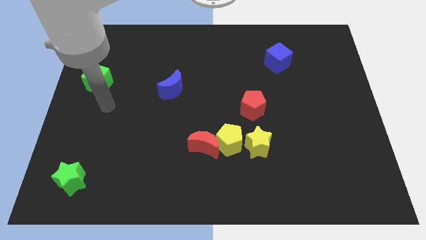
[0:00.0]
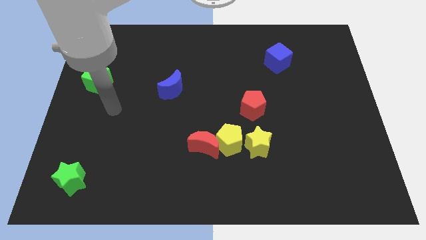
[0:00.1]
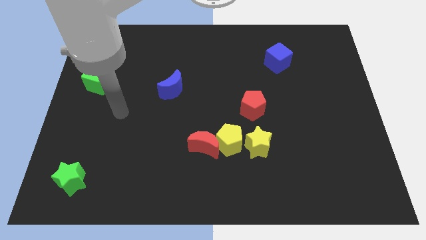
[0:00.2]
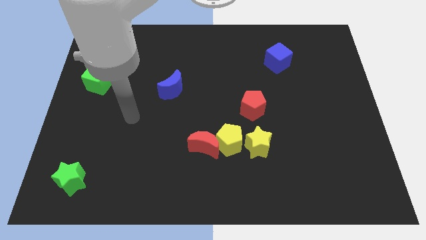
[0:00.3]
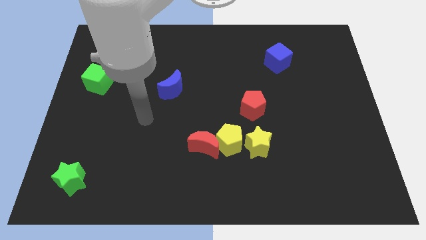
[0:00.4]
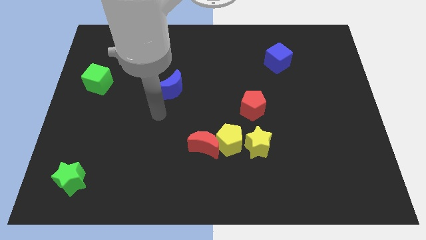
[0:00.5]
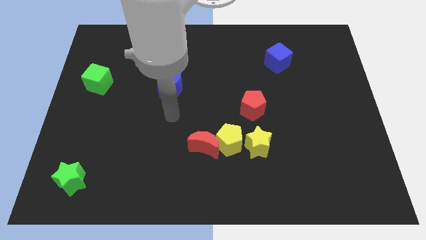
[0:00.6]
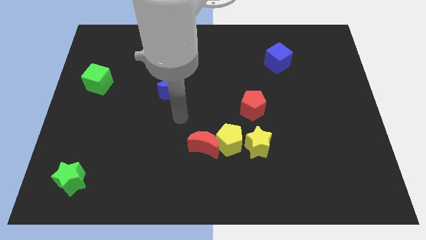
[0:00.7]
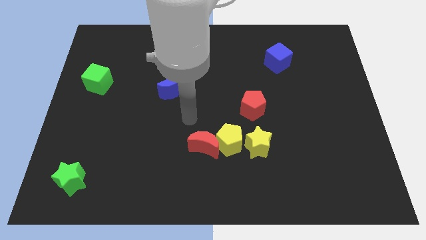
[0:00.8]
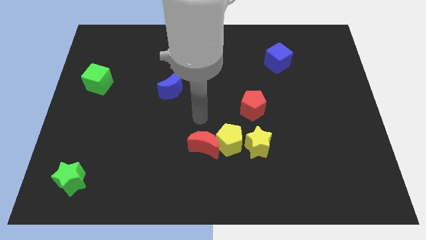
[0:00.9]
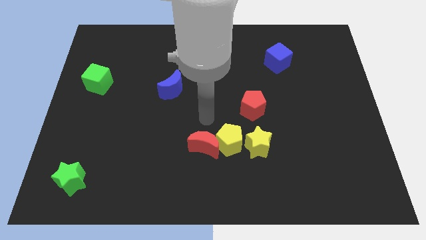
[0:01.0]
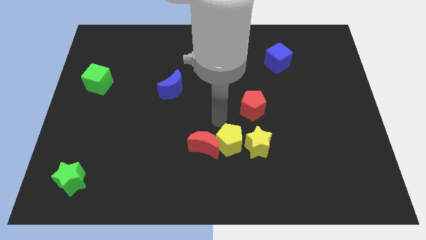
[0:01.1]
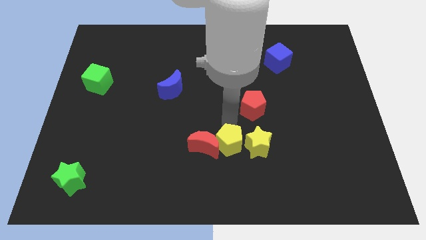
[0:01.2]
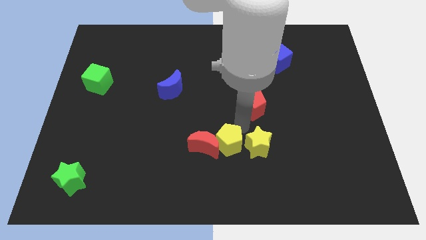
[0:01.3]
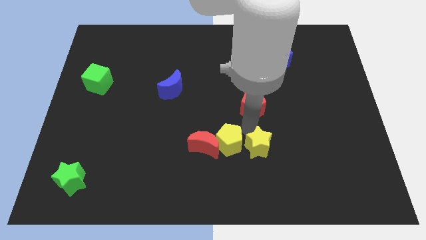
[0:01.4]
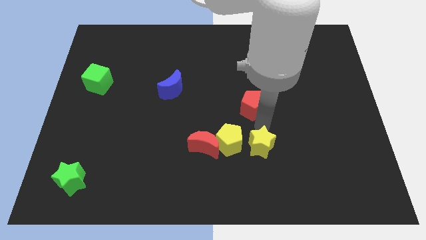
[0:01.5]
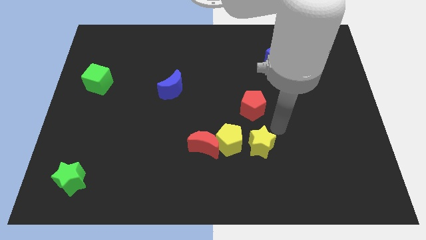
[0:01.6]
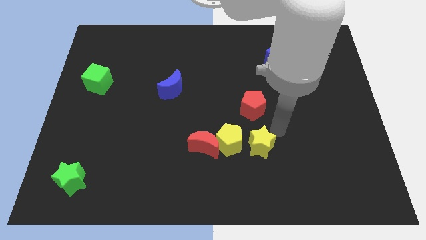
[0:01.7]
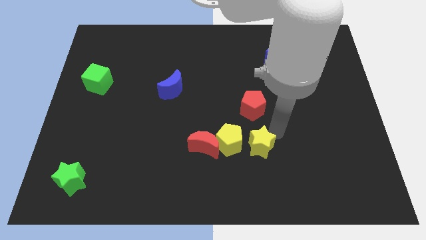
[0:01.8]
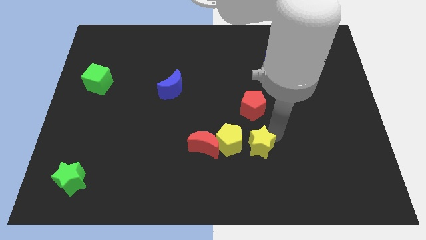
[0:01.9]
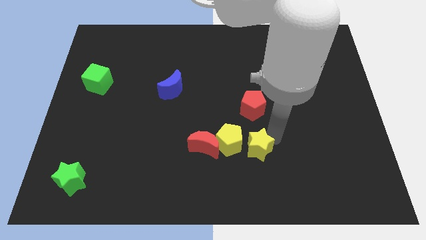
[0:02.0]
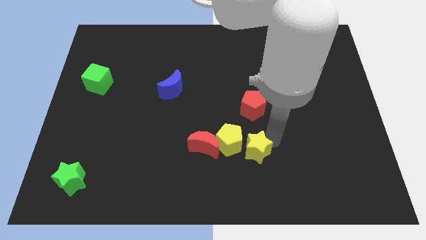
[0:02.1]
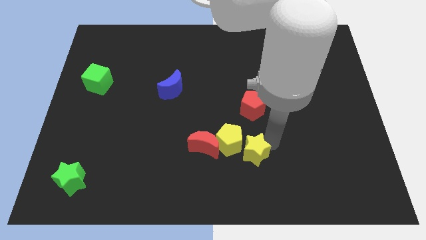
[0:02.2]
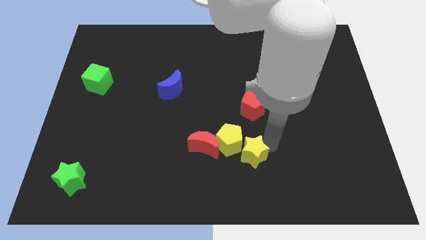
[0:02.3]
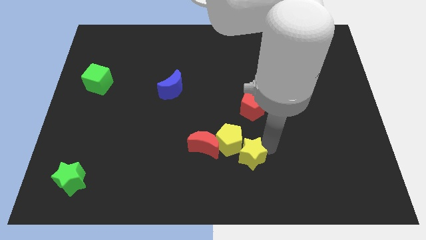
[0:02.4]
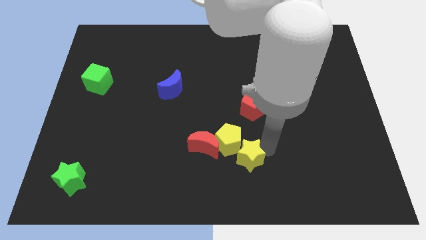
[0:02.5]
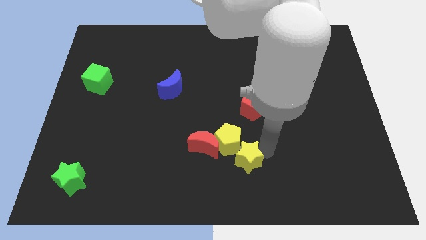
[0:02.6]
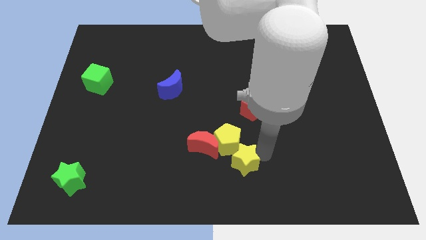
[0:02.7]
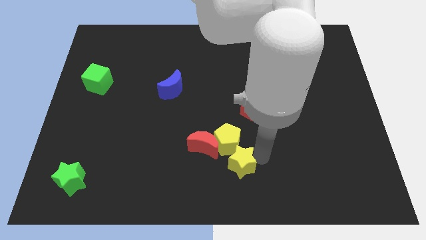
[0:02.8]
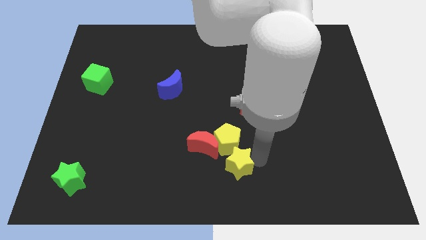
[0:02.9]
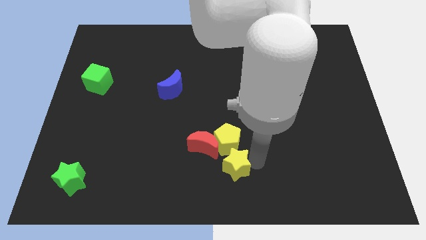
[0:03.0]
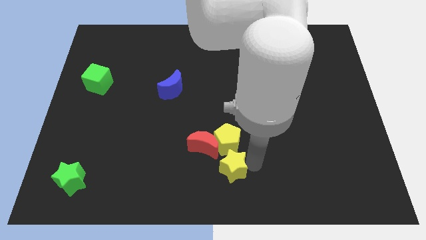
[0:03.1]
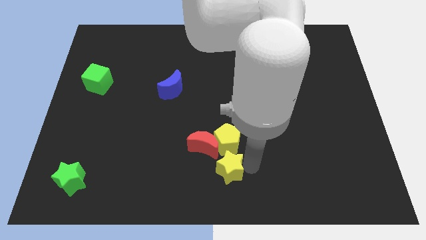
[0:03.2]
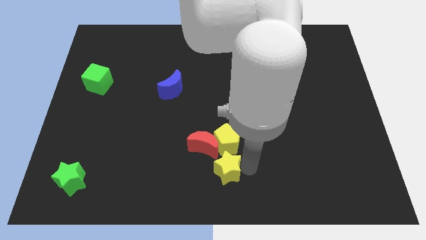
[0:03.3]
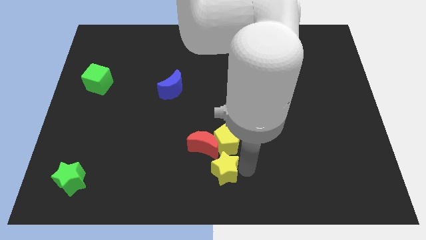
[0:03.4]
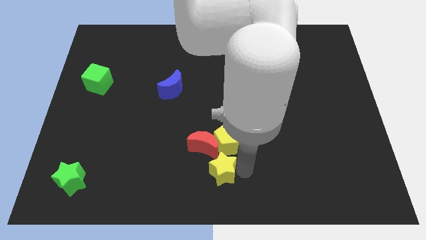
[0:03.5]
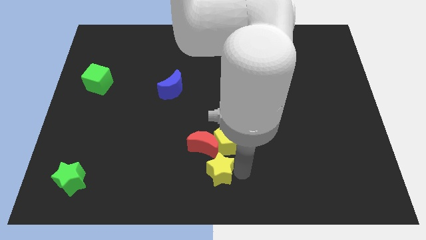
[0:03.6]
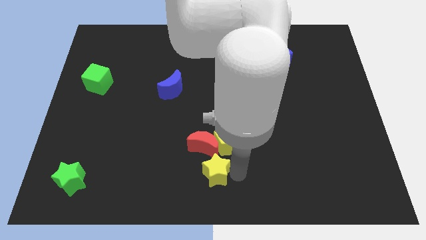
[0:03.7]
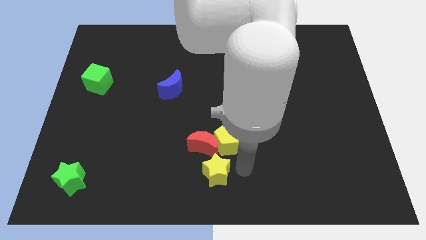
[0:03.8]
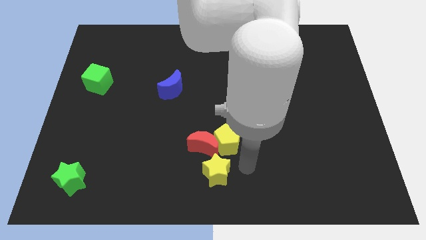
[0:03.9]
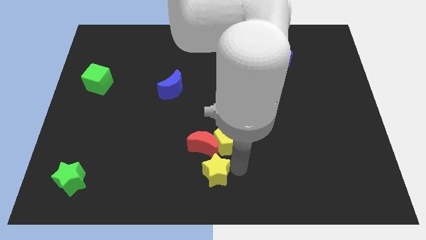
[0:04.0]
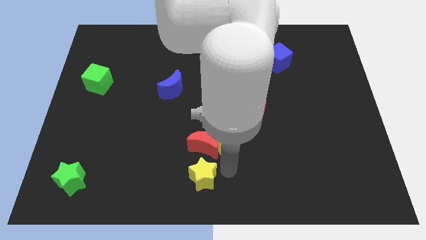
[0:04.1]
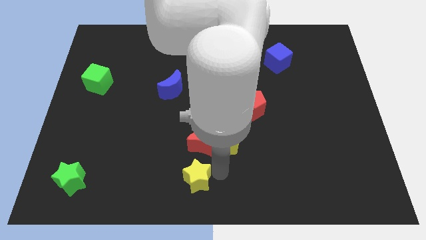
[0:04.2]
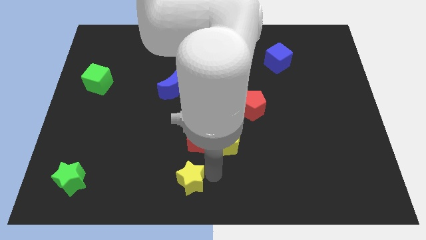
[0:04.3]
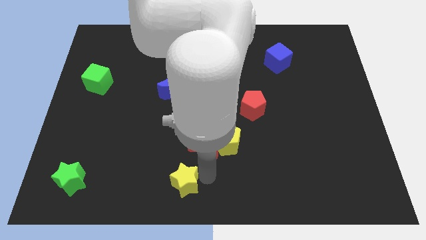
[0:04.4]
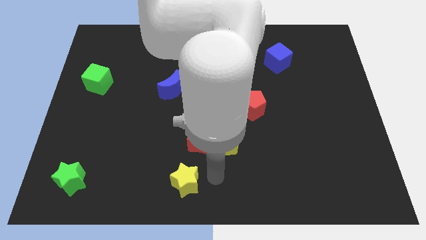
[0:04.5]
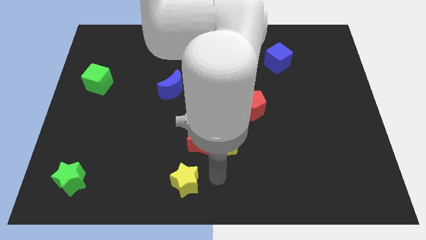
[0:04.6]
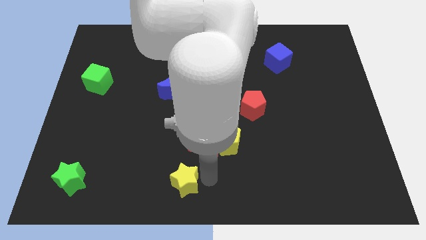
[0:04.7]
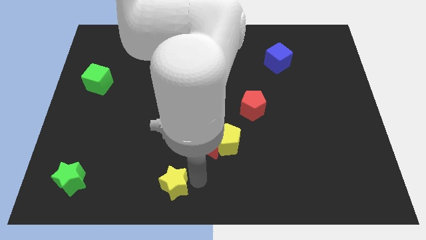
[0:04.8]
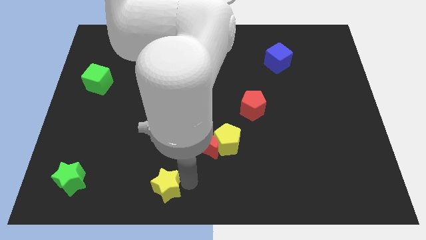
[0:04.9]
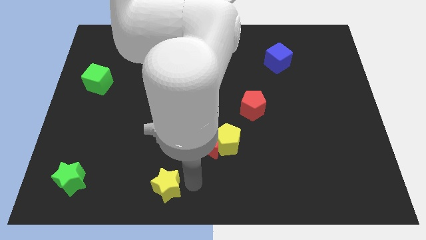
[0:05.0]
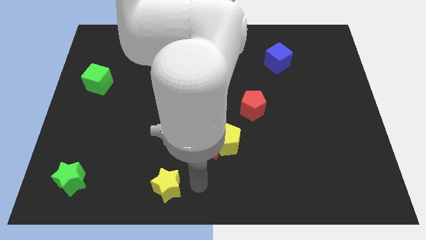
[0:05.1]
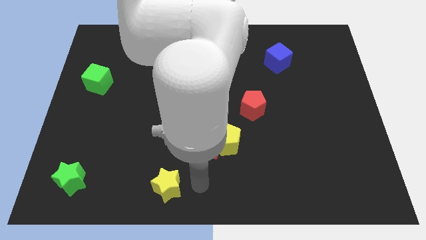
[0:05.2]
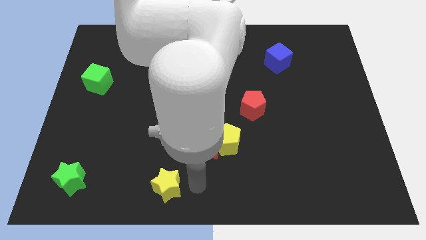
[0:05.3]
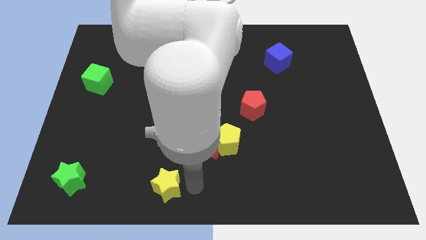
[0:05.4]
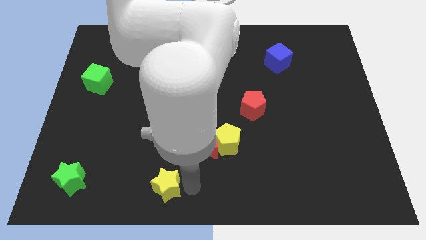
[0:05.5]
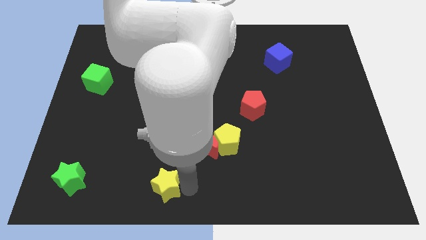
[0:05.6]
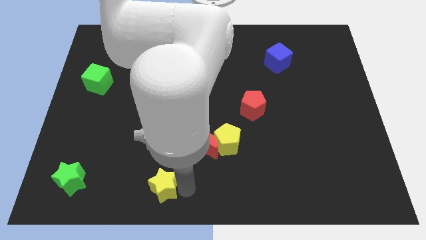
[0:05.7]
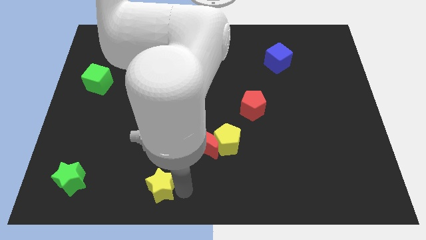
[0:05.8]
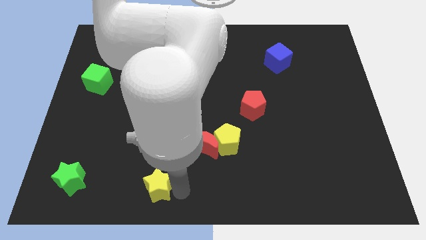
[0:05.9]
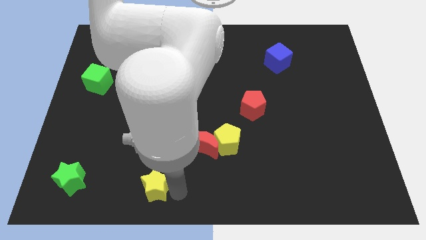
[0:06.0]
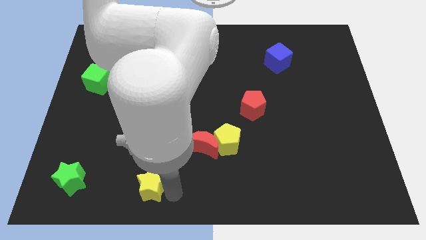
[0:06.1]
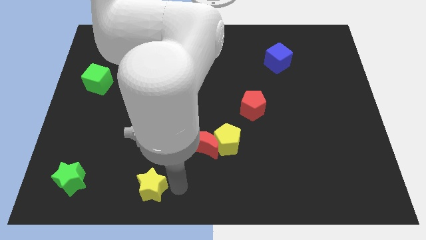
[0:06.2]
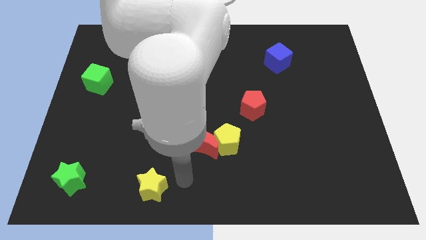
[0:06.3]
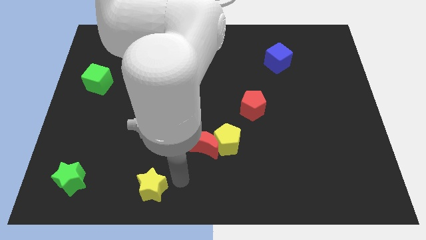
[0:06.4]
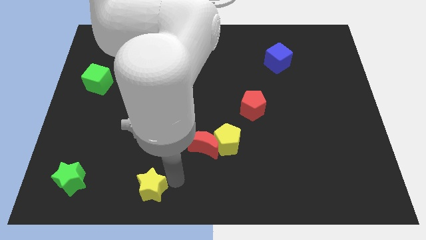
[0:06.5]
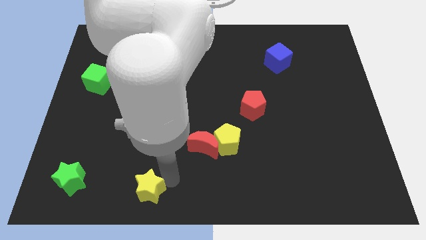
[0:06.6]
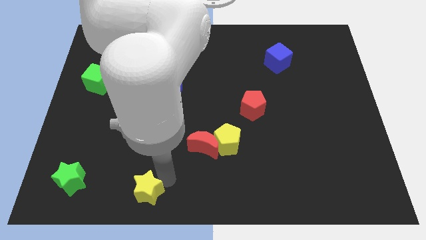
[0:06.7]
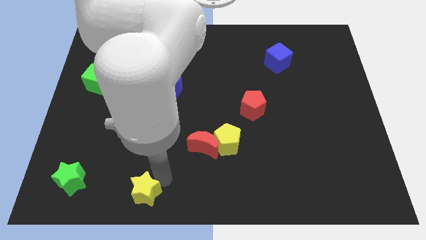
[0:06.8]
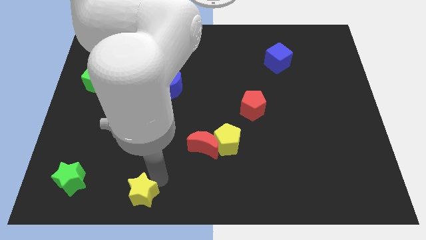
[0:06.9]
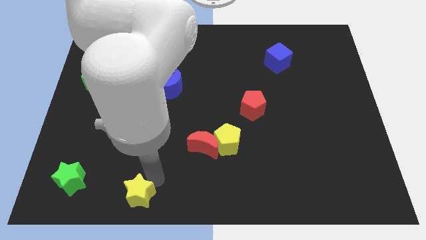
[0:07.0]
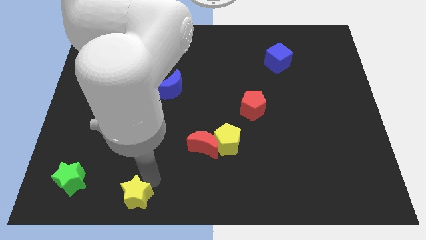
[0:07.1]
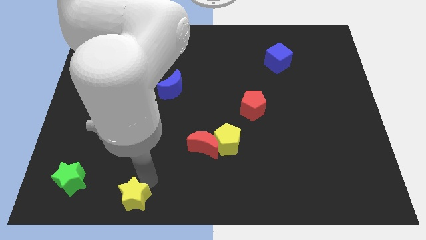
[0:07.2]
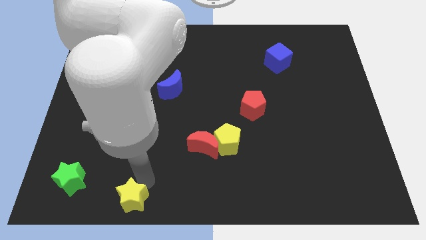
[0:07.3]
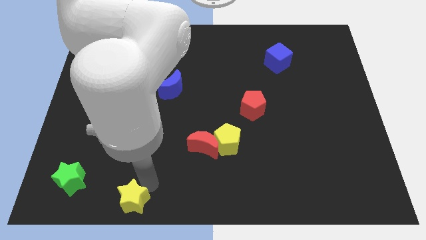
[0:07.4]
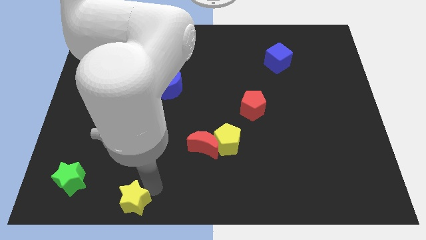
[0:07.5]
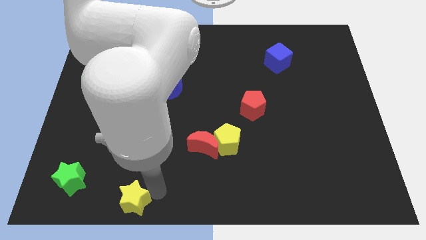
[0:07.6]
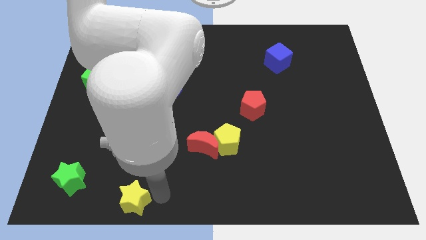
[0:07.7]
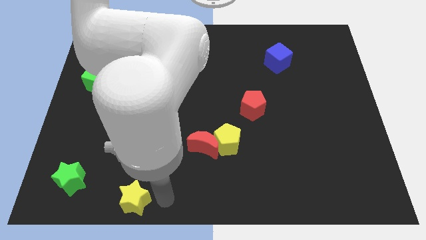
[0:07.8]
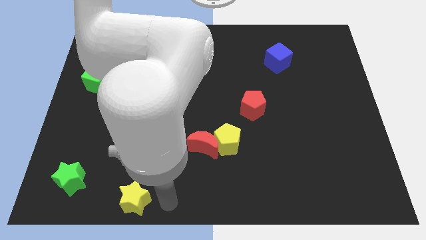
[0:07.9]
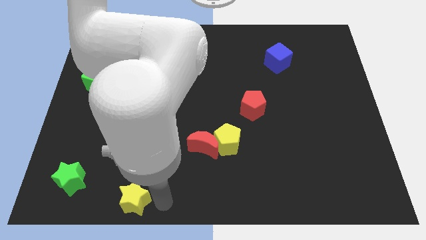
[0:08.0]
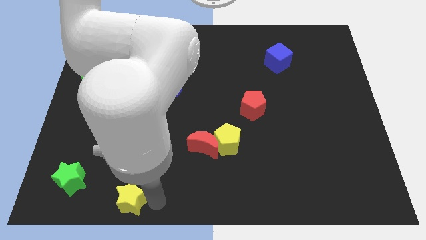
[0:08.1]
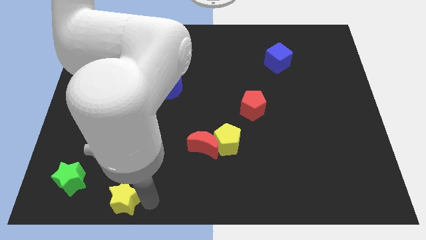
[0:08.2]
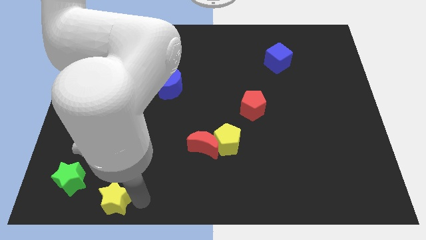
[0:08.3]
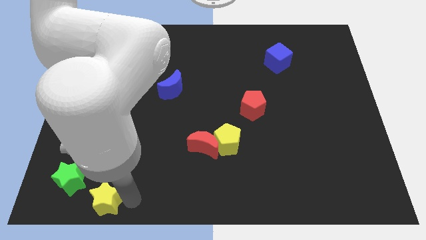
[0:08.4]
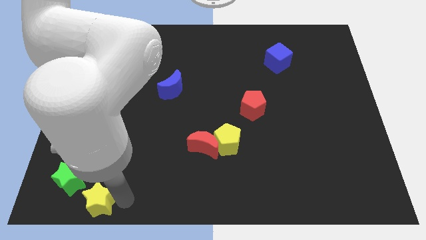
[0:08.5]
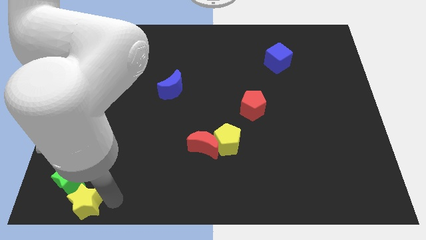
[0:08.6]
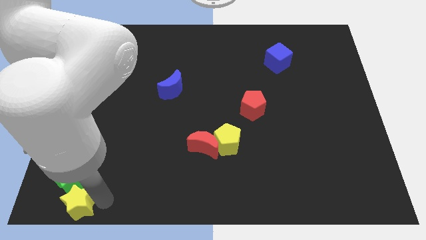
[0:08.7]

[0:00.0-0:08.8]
move the yellow star to the lower left corner
